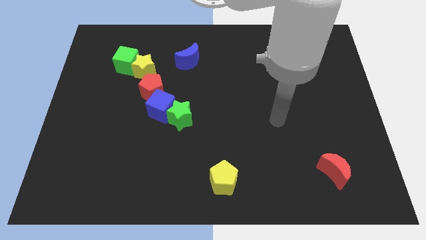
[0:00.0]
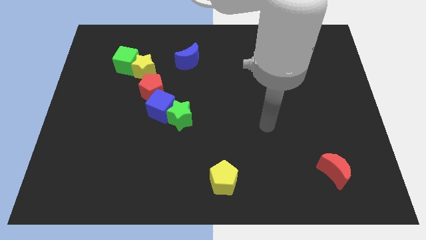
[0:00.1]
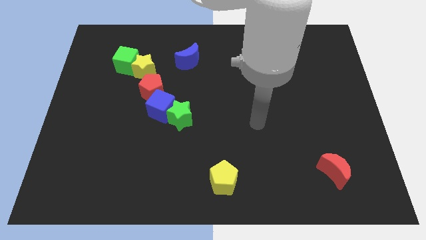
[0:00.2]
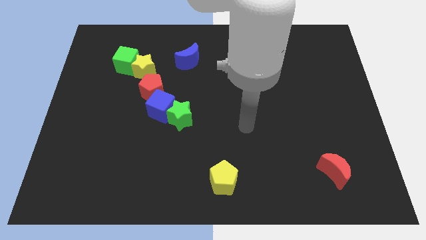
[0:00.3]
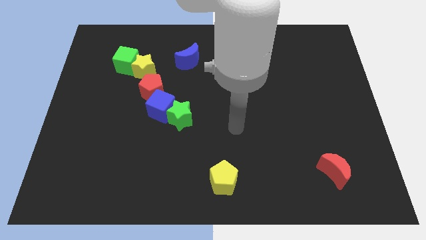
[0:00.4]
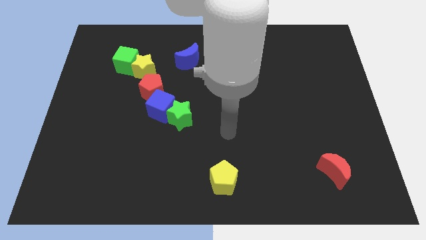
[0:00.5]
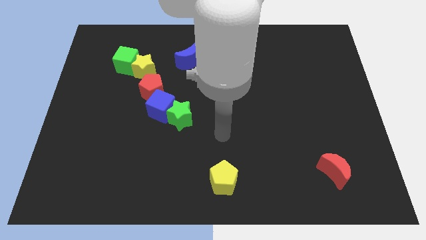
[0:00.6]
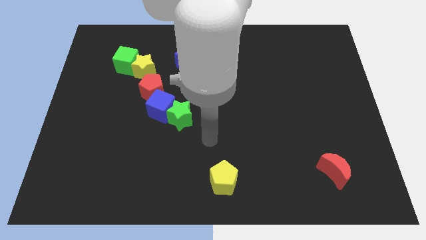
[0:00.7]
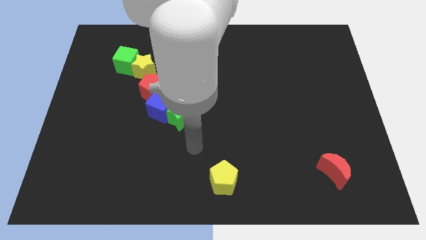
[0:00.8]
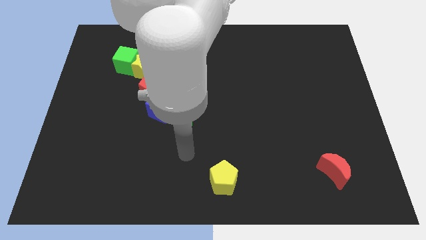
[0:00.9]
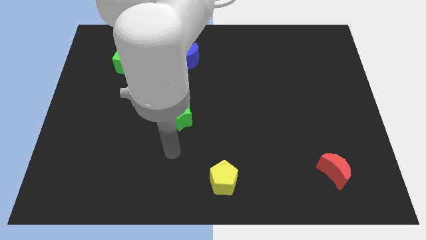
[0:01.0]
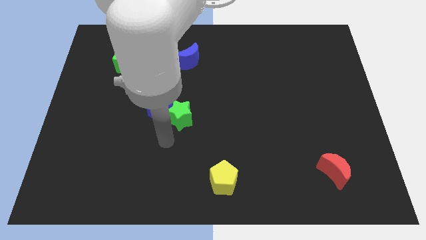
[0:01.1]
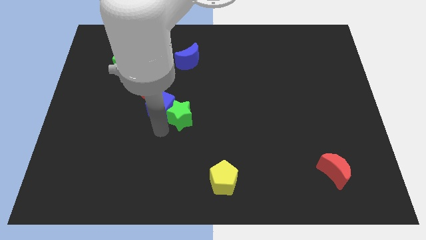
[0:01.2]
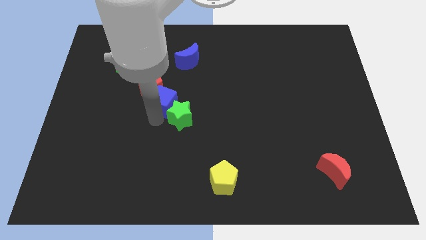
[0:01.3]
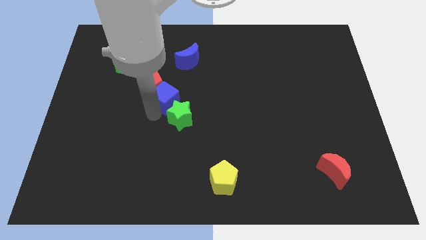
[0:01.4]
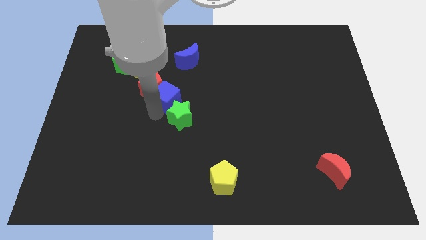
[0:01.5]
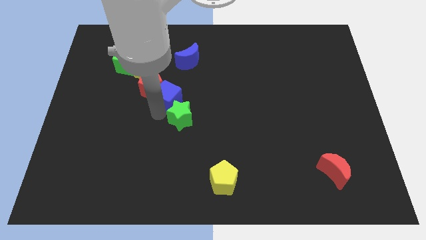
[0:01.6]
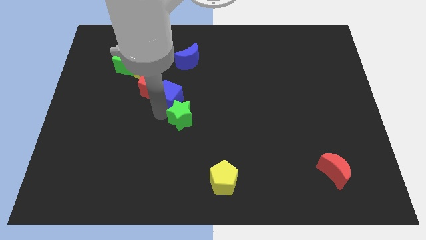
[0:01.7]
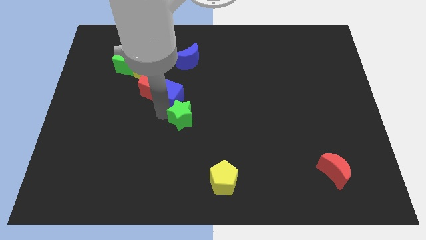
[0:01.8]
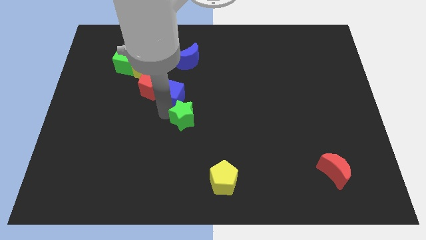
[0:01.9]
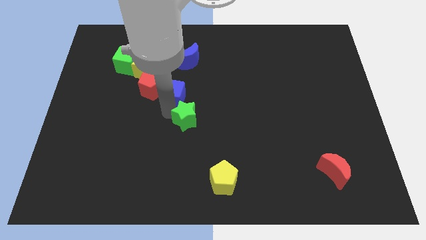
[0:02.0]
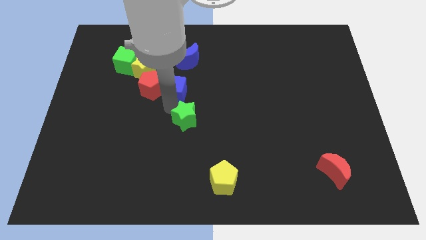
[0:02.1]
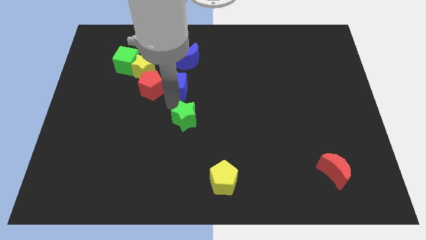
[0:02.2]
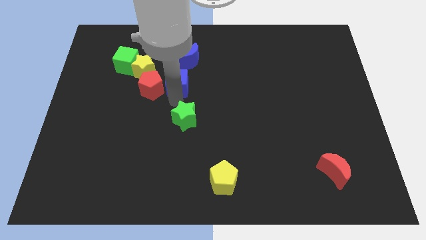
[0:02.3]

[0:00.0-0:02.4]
separate the green star from the blue cube

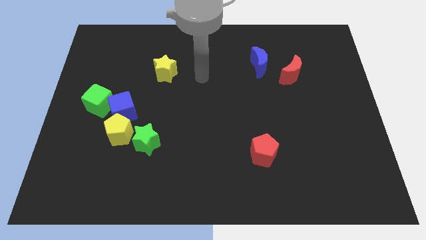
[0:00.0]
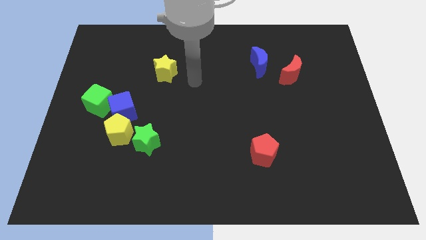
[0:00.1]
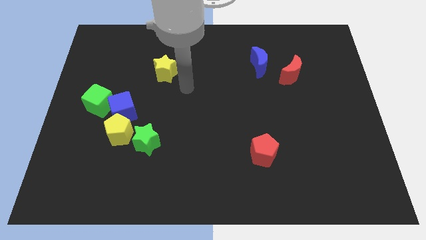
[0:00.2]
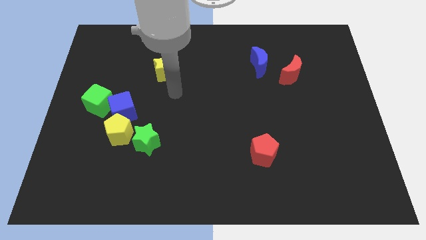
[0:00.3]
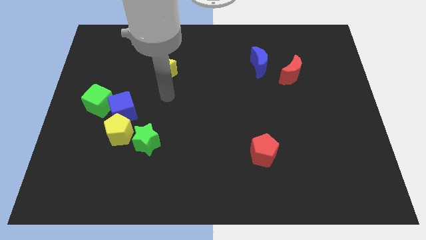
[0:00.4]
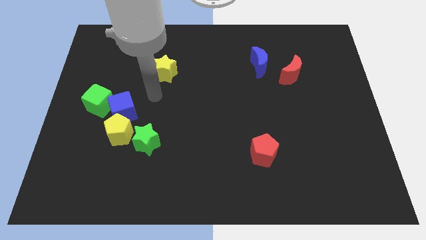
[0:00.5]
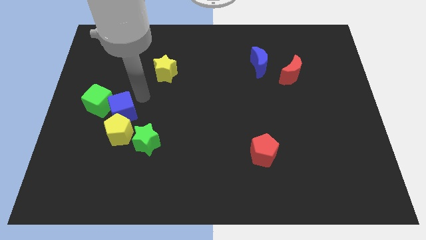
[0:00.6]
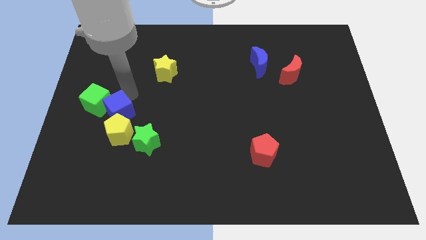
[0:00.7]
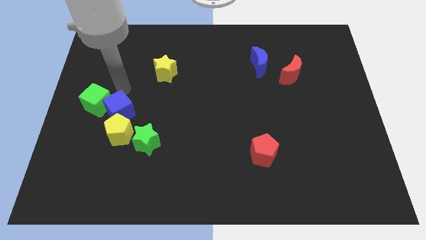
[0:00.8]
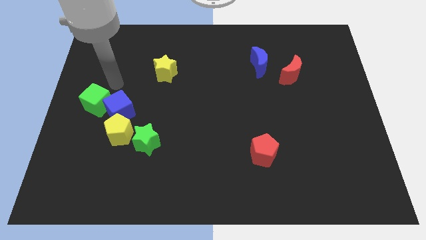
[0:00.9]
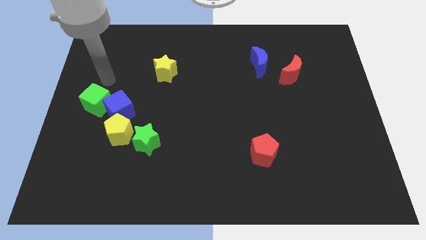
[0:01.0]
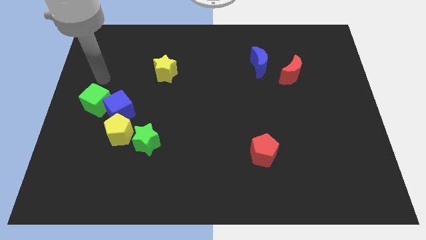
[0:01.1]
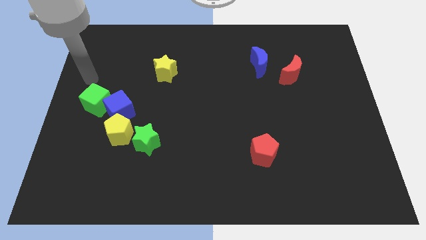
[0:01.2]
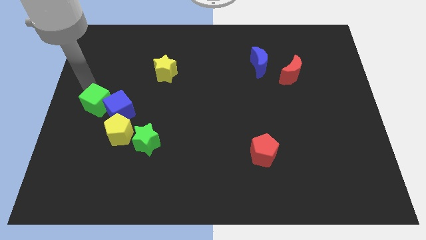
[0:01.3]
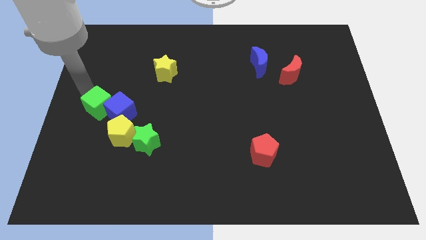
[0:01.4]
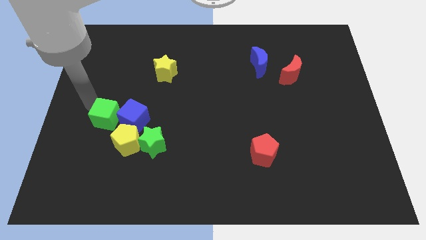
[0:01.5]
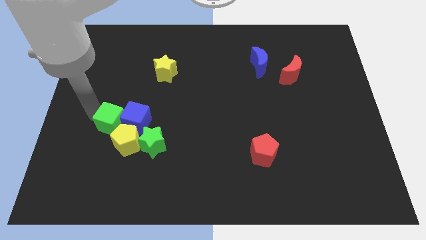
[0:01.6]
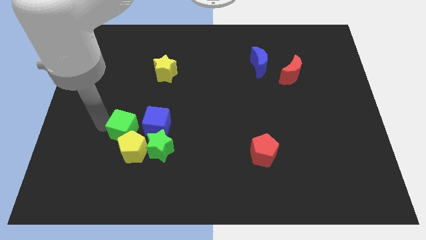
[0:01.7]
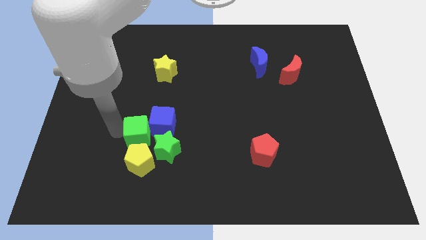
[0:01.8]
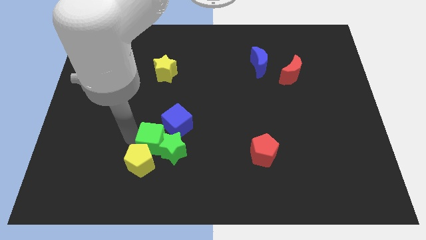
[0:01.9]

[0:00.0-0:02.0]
move the blue cube away from the yellow pentagon and green cube

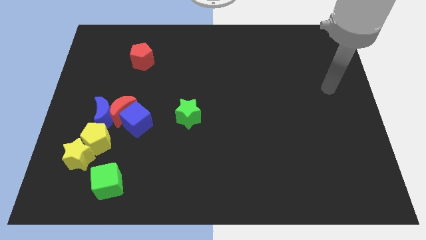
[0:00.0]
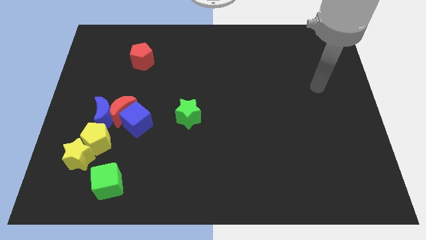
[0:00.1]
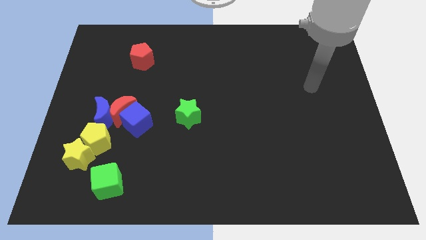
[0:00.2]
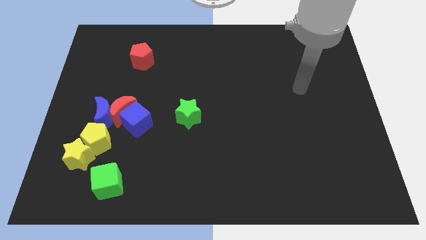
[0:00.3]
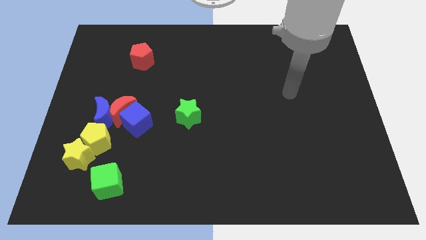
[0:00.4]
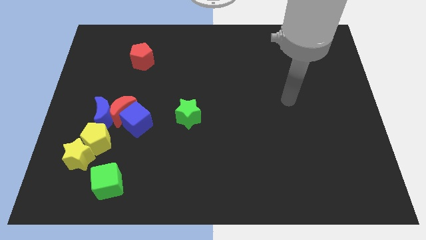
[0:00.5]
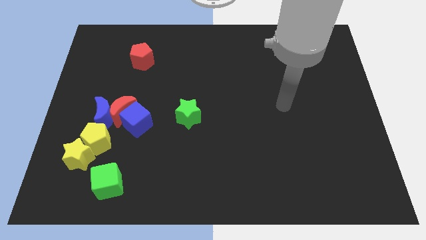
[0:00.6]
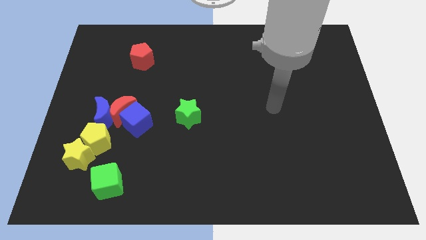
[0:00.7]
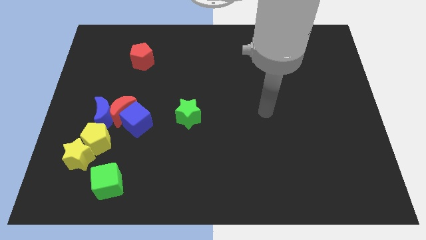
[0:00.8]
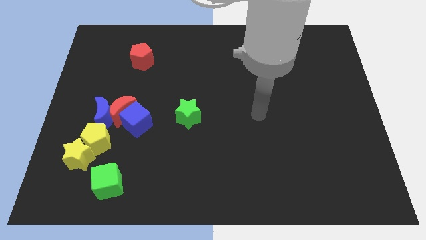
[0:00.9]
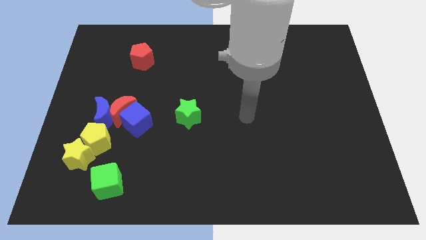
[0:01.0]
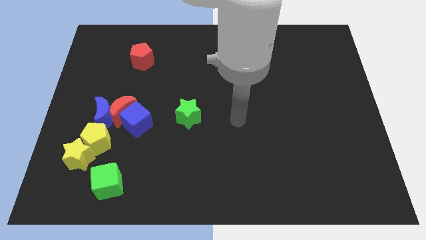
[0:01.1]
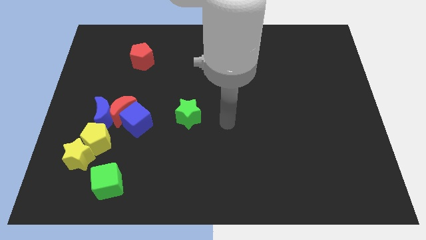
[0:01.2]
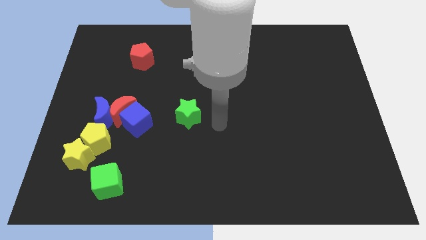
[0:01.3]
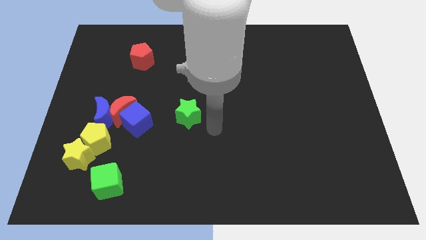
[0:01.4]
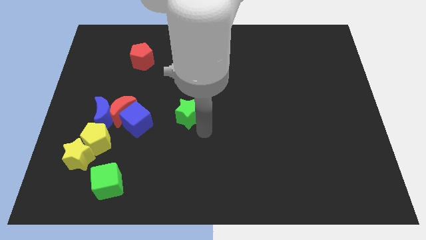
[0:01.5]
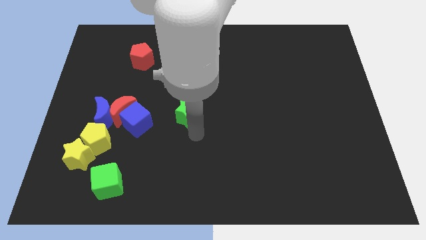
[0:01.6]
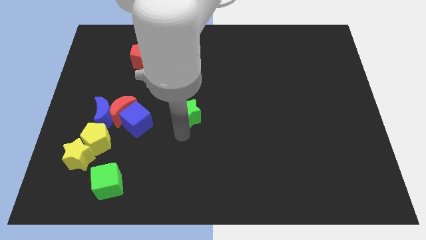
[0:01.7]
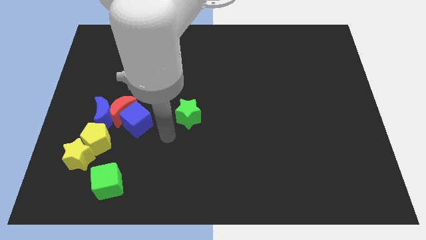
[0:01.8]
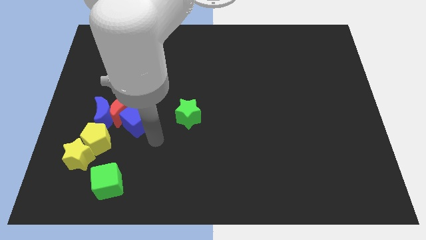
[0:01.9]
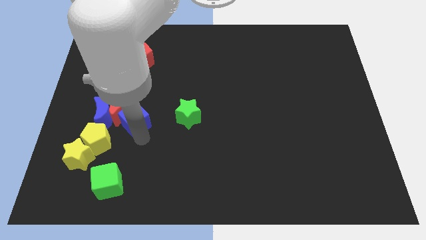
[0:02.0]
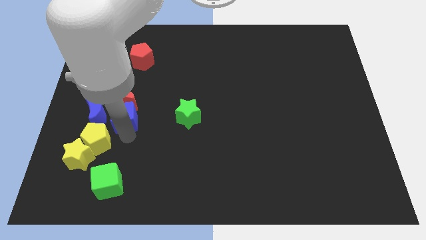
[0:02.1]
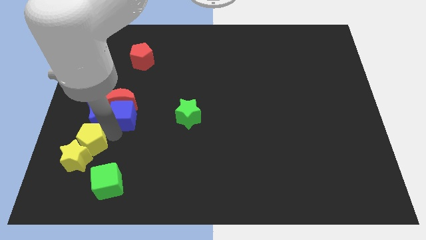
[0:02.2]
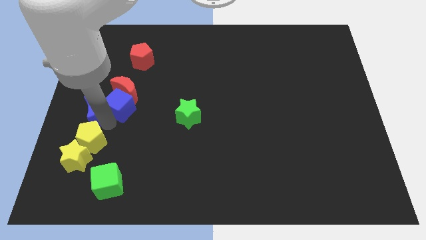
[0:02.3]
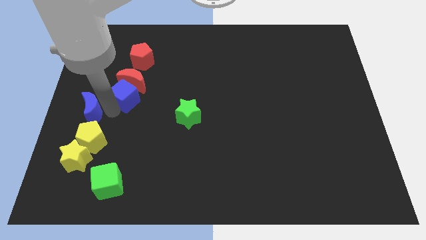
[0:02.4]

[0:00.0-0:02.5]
separate the red moon from the blue moon, blue cube, and yellow pentagon

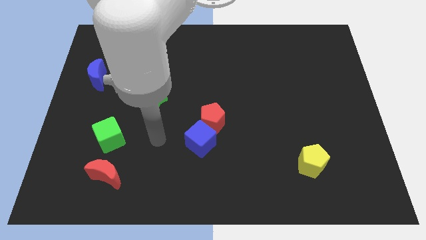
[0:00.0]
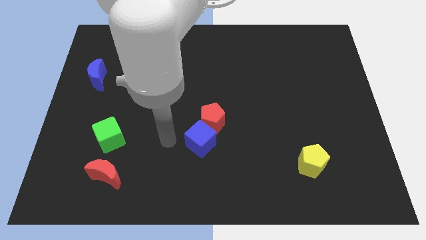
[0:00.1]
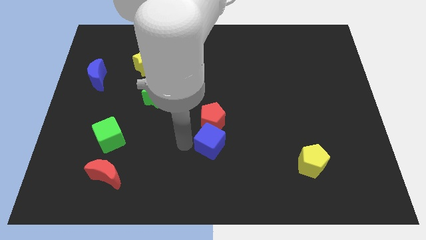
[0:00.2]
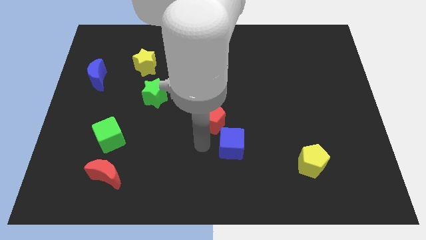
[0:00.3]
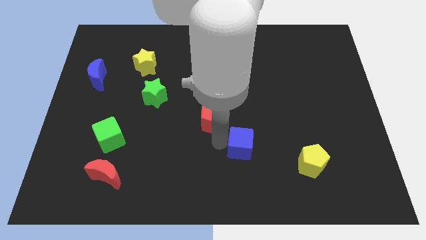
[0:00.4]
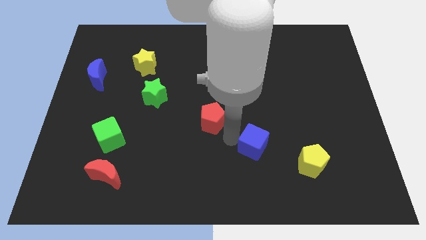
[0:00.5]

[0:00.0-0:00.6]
pull the red pentagon apart from the blue cube

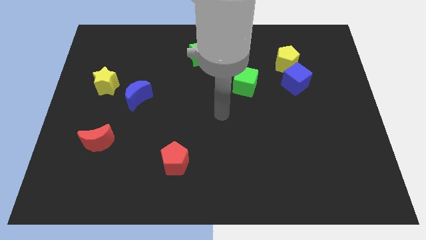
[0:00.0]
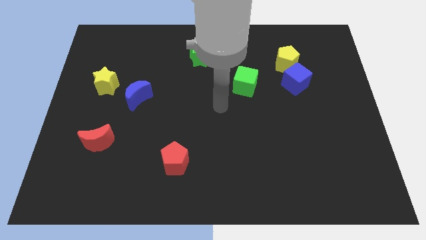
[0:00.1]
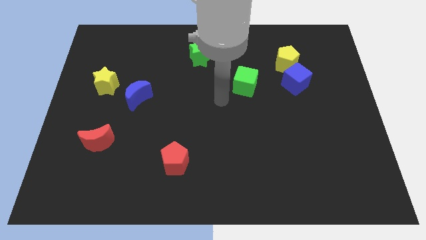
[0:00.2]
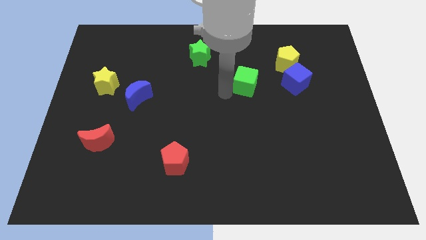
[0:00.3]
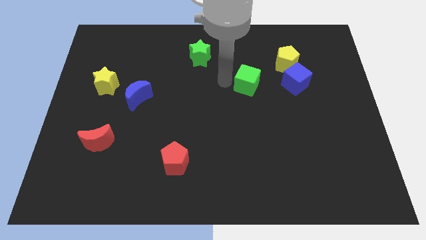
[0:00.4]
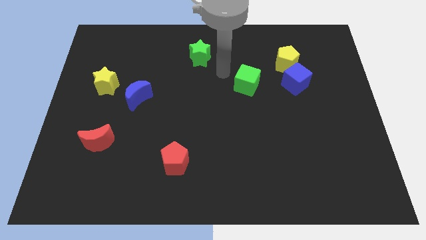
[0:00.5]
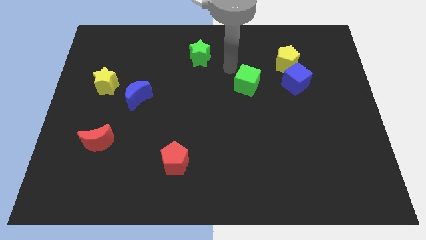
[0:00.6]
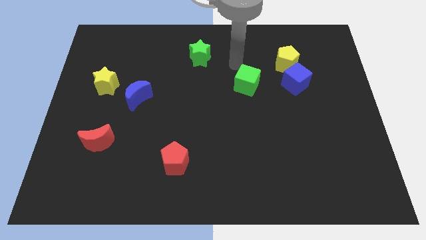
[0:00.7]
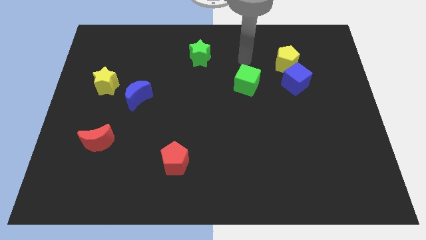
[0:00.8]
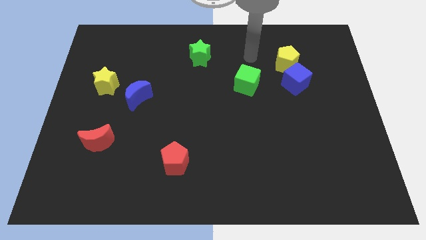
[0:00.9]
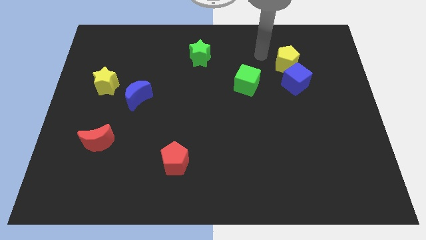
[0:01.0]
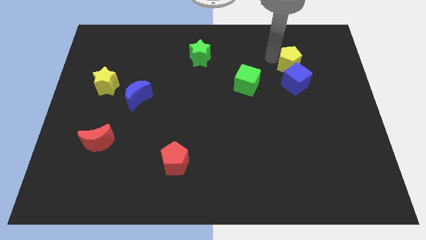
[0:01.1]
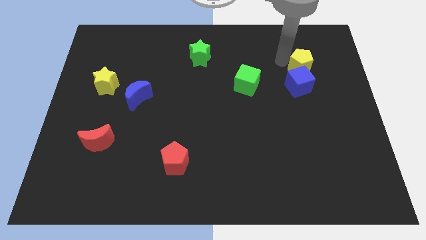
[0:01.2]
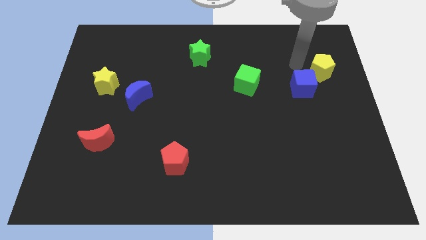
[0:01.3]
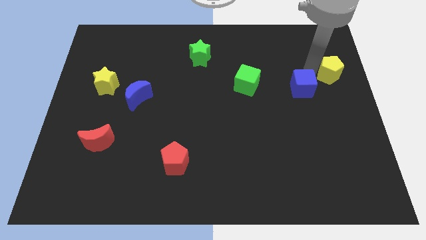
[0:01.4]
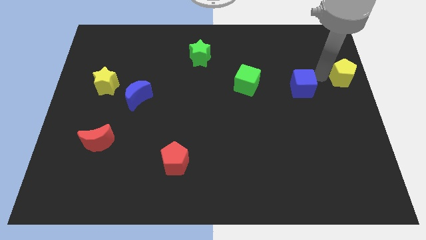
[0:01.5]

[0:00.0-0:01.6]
move the blue cube away from the yellow pentagon

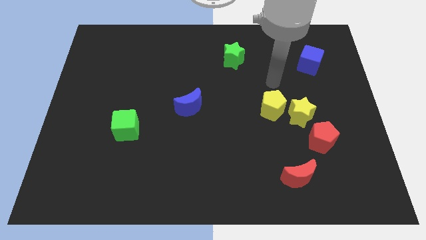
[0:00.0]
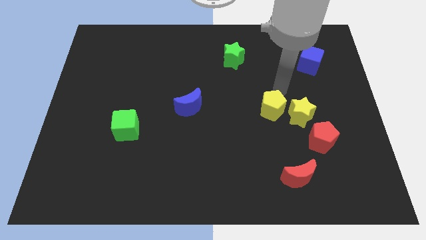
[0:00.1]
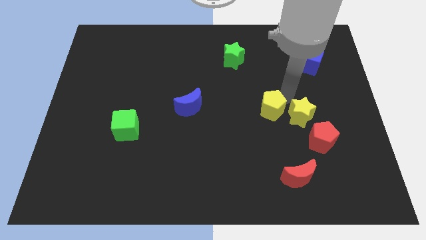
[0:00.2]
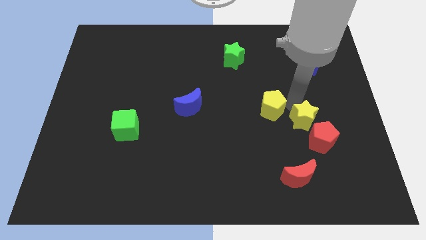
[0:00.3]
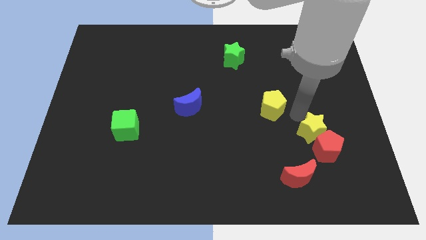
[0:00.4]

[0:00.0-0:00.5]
move the yellow pentagon away from the yellow star
